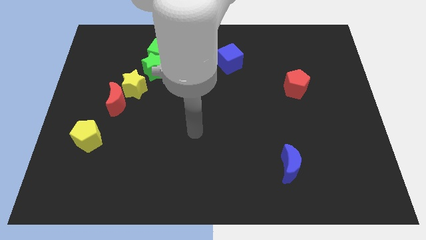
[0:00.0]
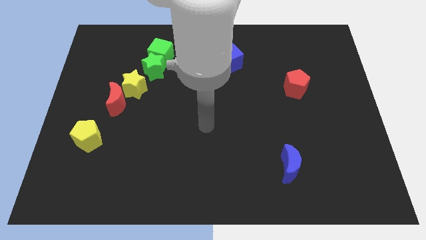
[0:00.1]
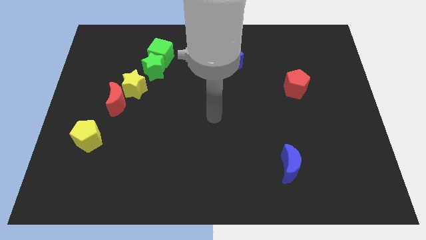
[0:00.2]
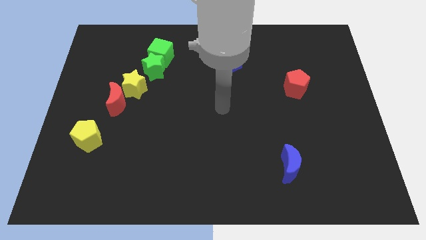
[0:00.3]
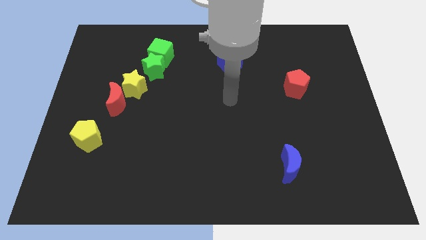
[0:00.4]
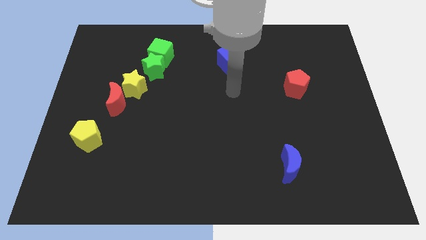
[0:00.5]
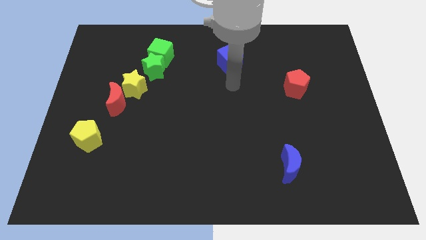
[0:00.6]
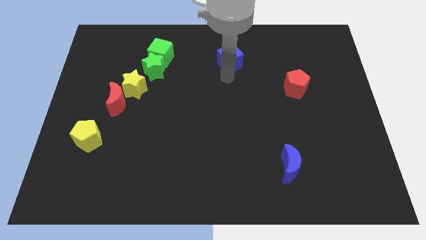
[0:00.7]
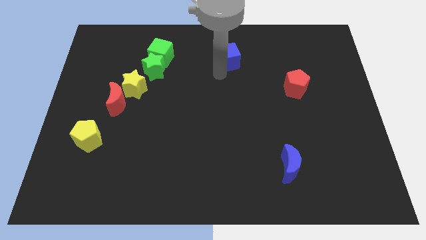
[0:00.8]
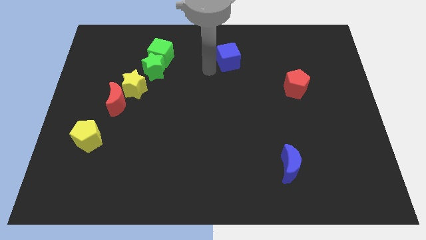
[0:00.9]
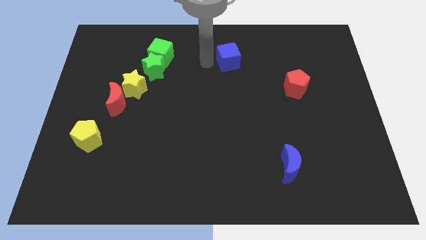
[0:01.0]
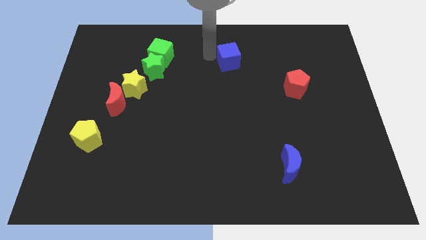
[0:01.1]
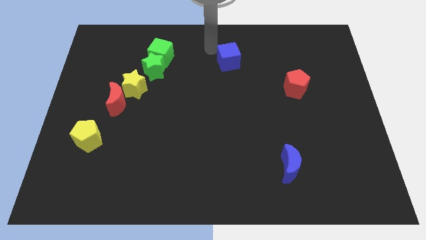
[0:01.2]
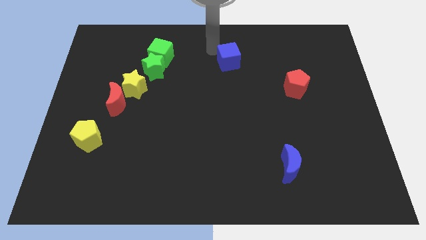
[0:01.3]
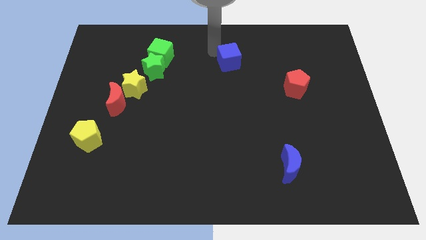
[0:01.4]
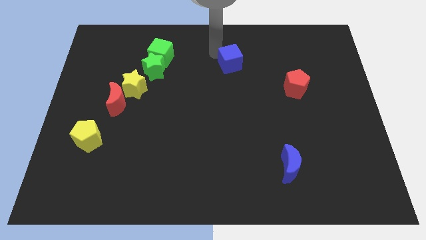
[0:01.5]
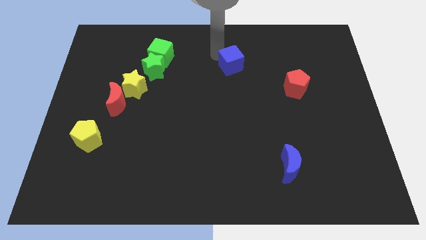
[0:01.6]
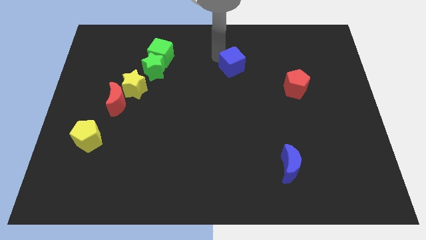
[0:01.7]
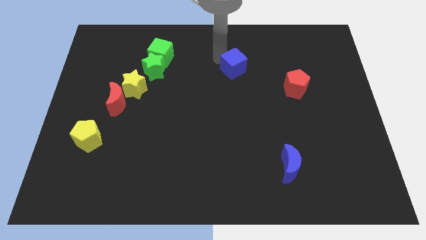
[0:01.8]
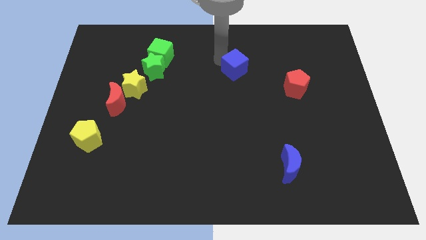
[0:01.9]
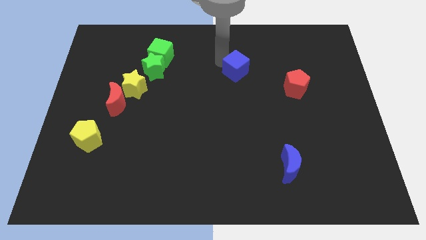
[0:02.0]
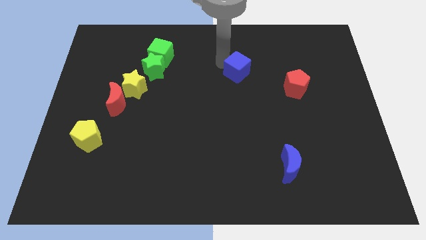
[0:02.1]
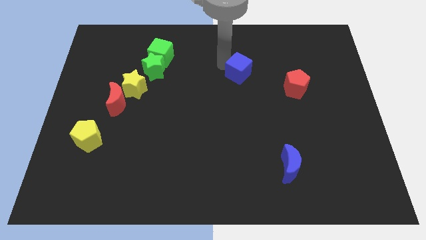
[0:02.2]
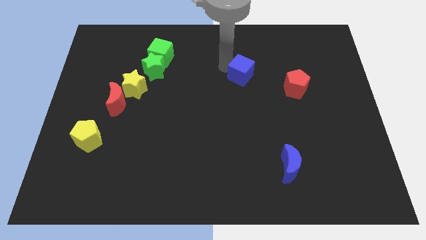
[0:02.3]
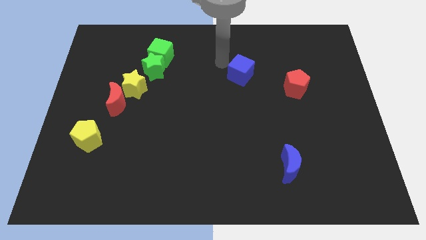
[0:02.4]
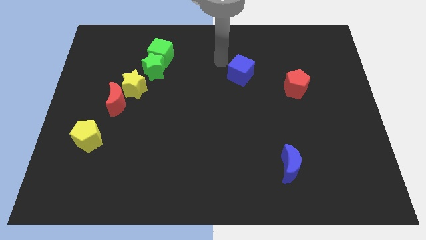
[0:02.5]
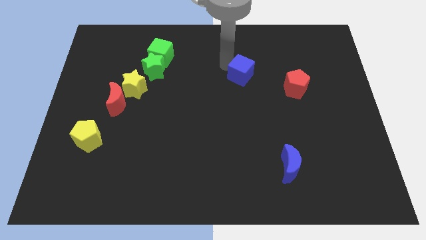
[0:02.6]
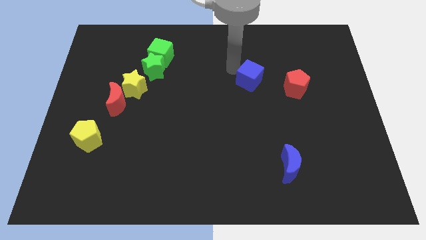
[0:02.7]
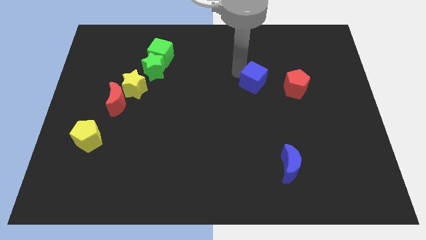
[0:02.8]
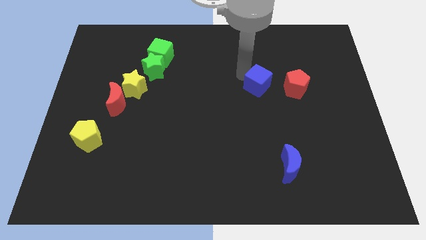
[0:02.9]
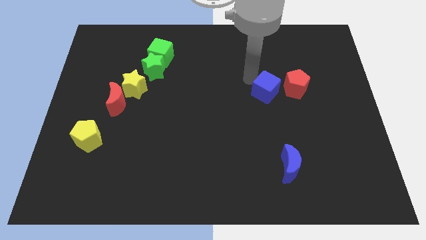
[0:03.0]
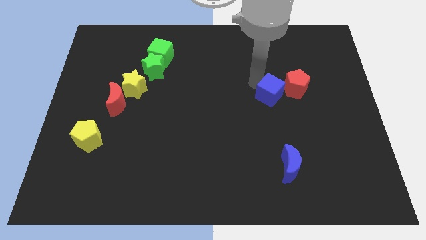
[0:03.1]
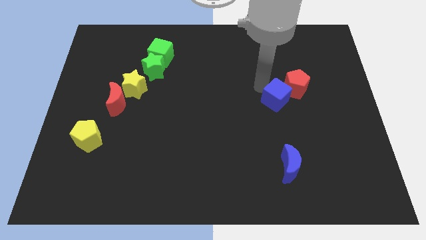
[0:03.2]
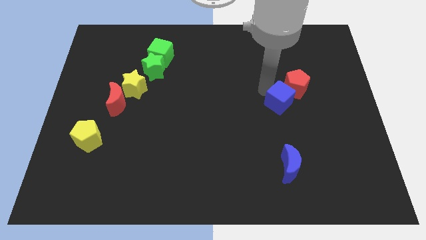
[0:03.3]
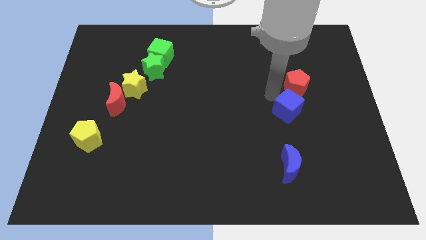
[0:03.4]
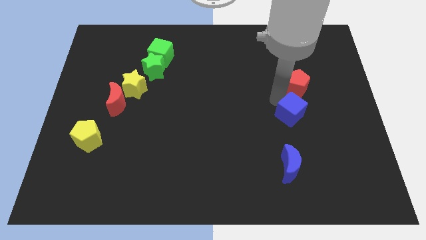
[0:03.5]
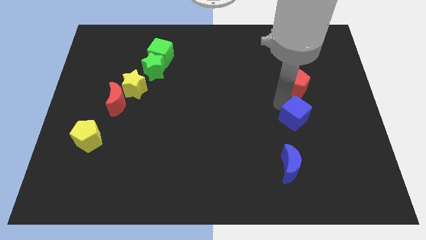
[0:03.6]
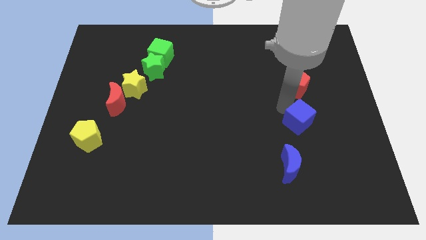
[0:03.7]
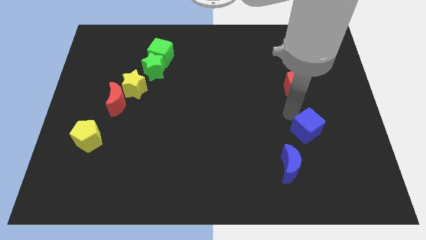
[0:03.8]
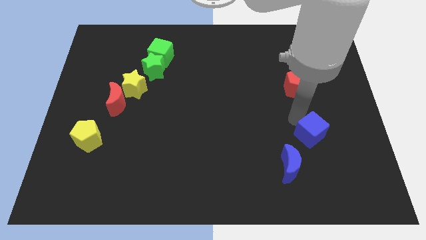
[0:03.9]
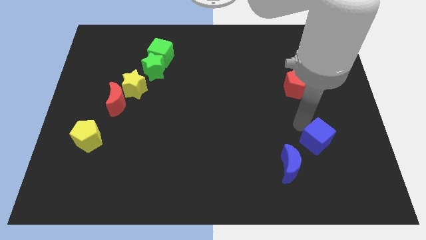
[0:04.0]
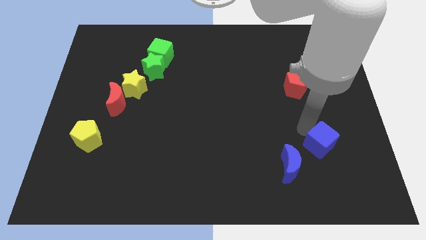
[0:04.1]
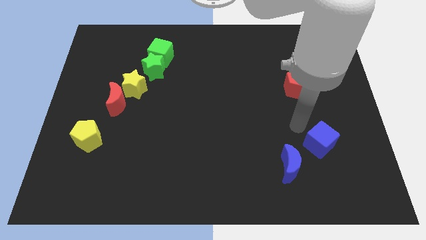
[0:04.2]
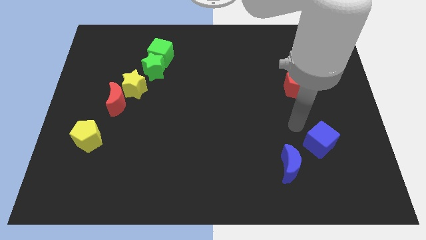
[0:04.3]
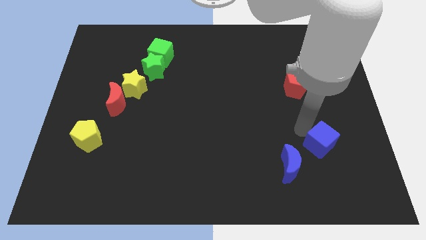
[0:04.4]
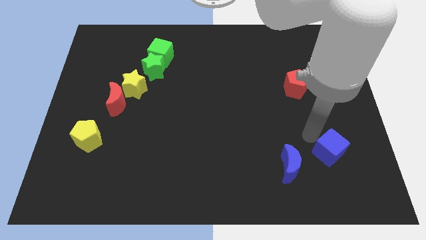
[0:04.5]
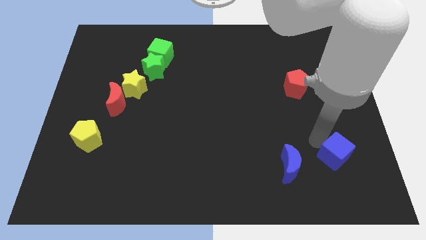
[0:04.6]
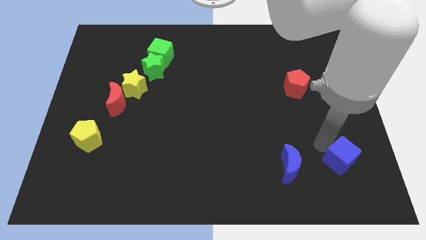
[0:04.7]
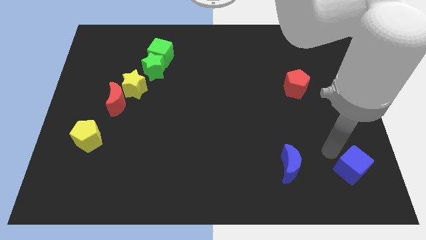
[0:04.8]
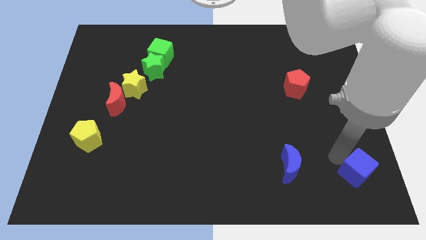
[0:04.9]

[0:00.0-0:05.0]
push the blue cube to the lower right corner

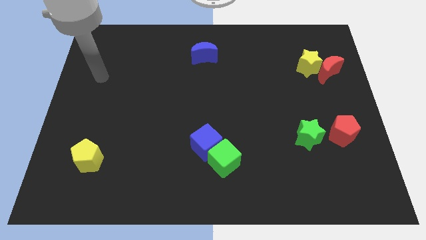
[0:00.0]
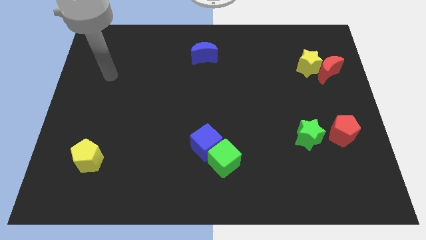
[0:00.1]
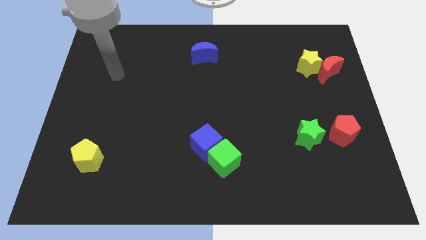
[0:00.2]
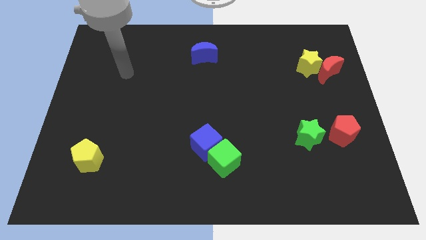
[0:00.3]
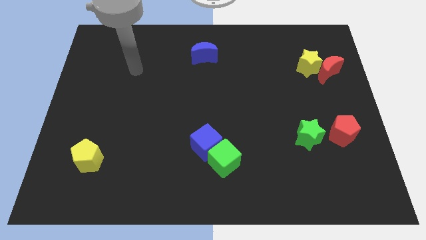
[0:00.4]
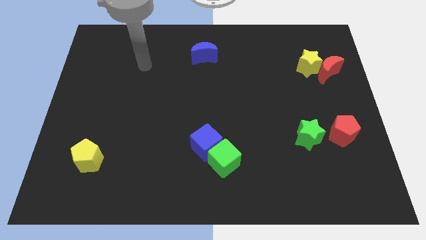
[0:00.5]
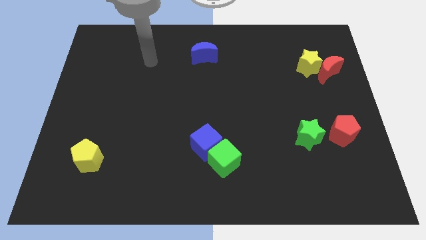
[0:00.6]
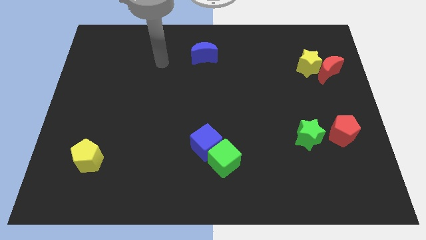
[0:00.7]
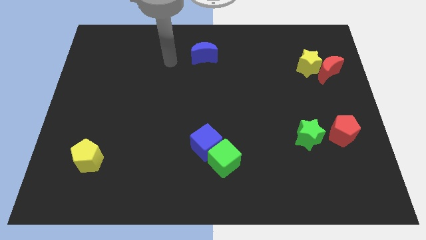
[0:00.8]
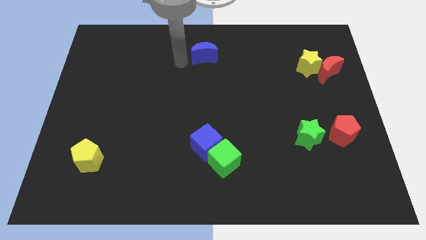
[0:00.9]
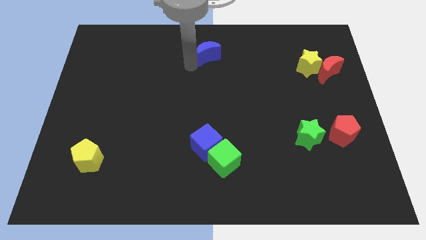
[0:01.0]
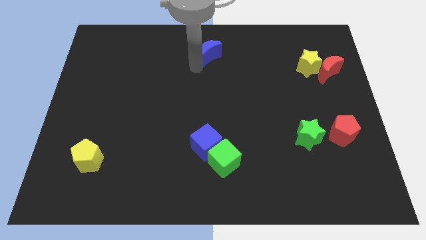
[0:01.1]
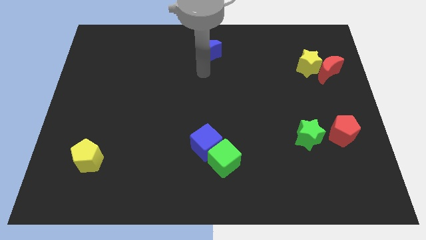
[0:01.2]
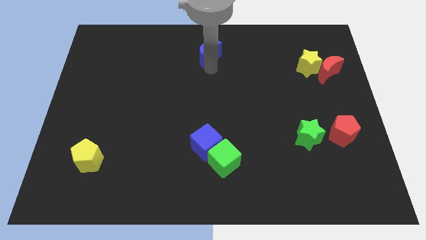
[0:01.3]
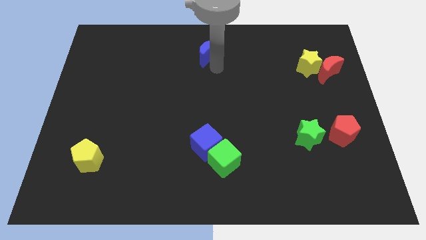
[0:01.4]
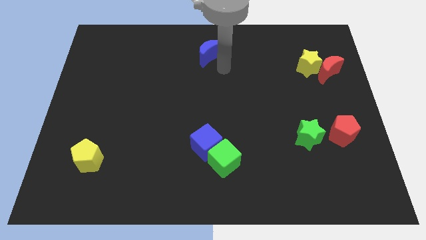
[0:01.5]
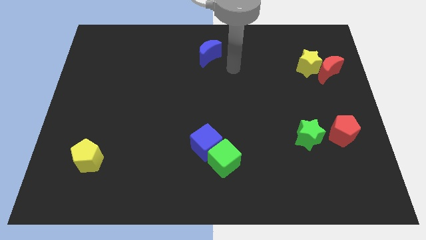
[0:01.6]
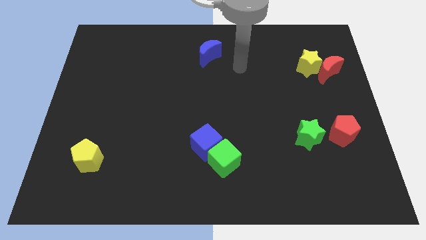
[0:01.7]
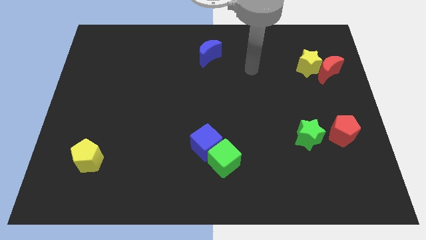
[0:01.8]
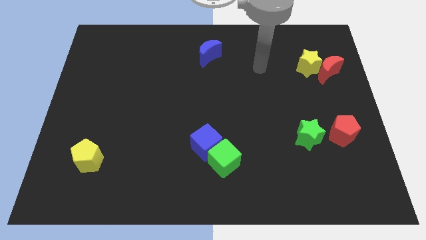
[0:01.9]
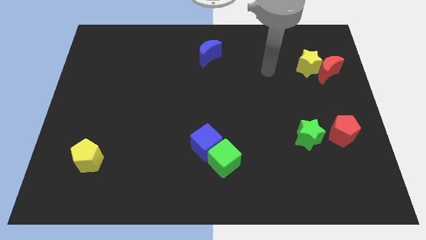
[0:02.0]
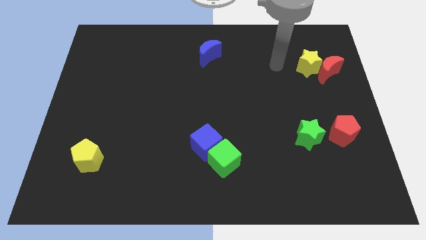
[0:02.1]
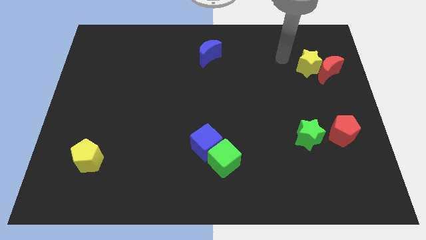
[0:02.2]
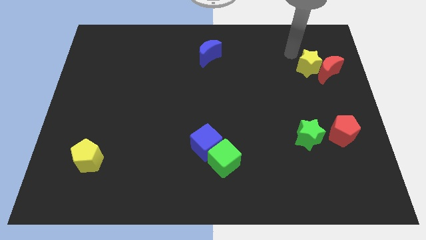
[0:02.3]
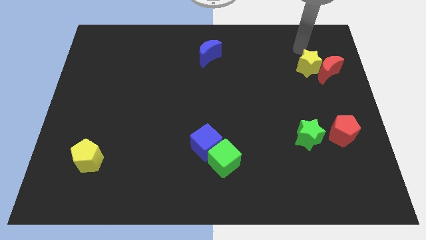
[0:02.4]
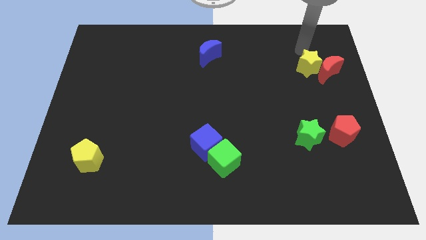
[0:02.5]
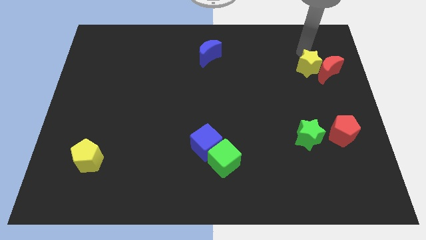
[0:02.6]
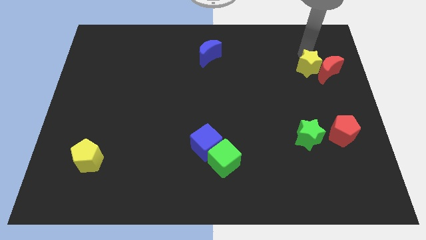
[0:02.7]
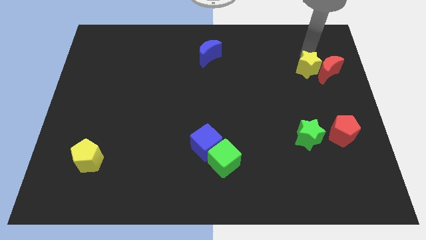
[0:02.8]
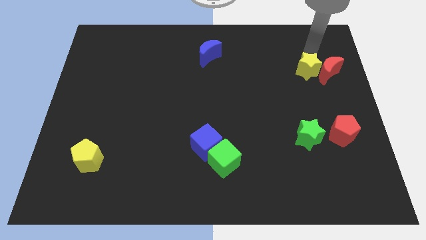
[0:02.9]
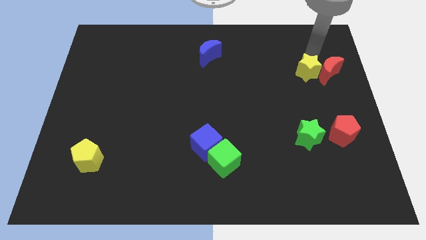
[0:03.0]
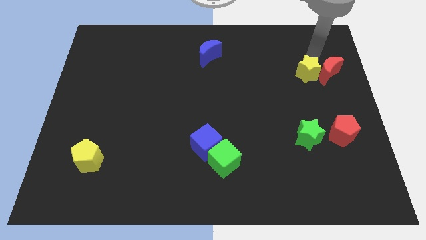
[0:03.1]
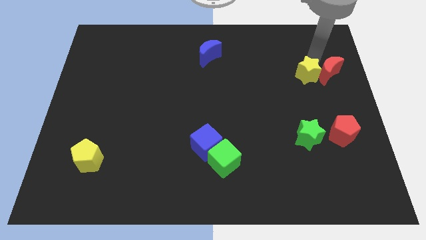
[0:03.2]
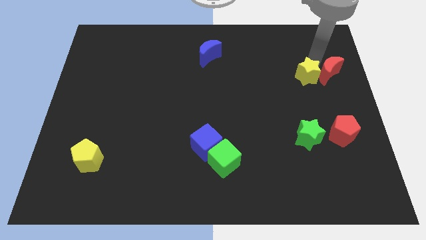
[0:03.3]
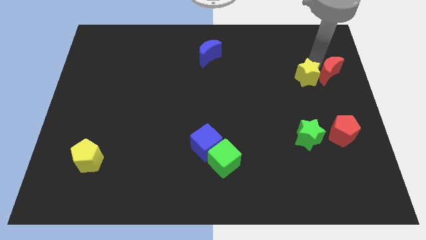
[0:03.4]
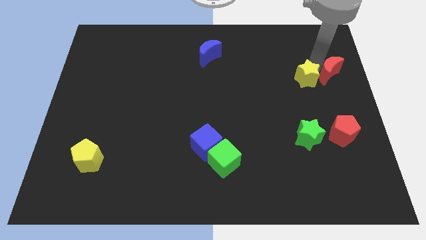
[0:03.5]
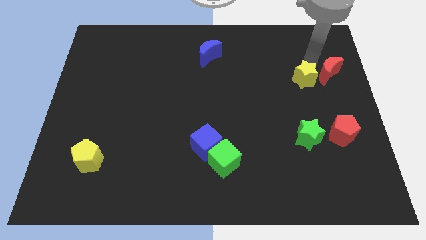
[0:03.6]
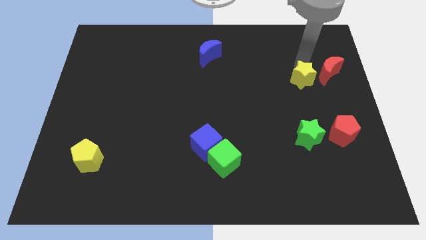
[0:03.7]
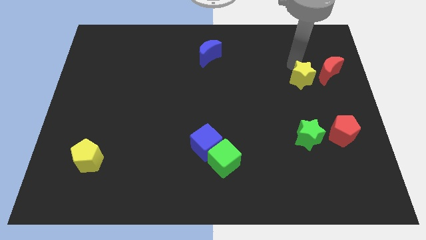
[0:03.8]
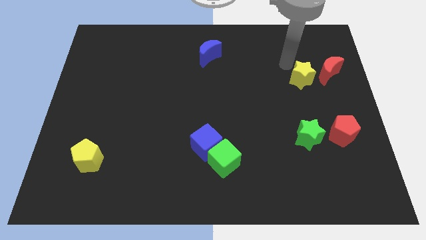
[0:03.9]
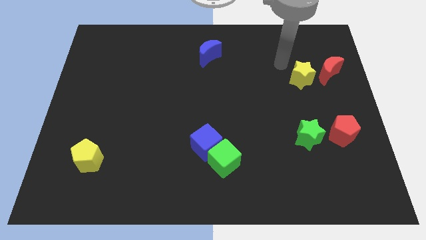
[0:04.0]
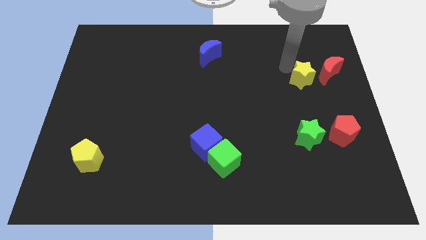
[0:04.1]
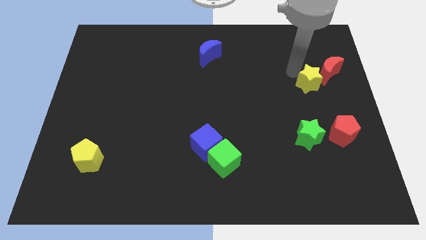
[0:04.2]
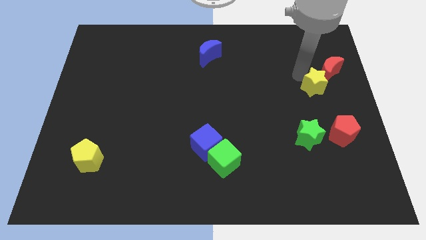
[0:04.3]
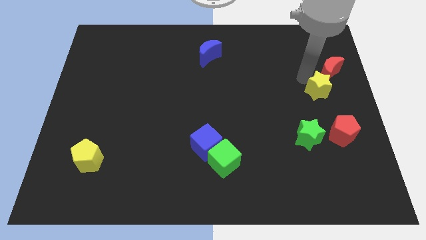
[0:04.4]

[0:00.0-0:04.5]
push the yellow star to the center right
